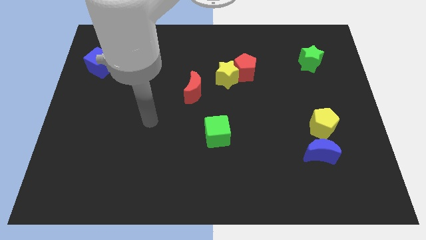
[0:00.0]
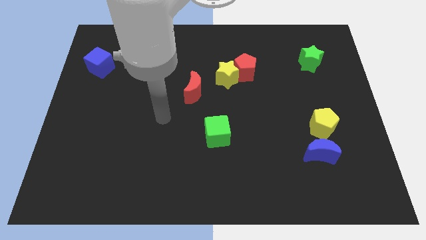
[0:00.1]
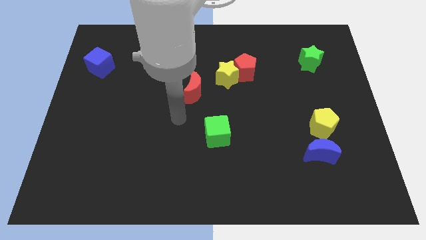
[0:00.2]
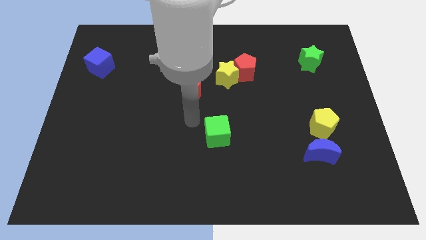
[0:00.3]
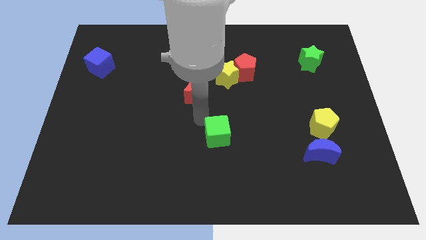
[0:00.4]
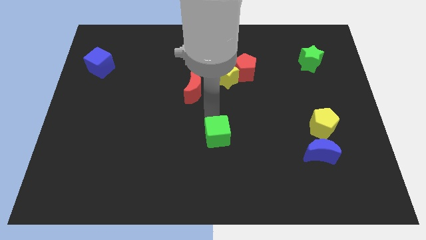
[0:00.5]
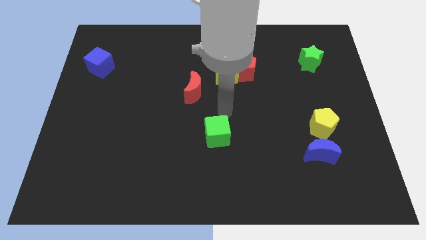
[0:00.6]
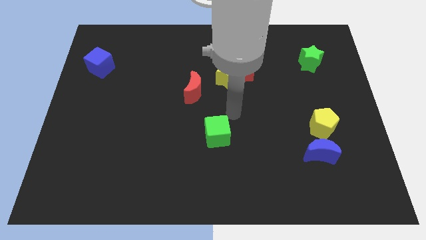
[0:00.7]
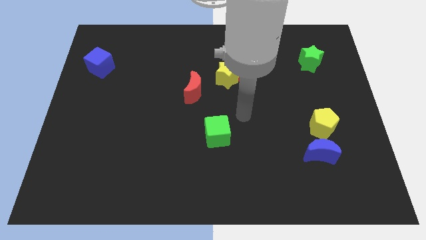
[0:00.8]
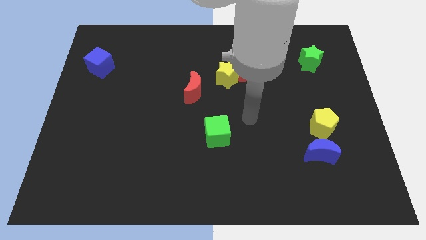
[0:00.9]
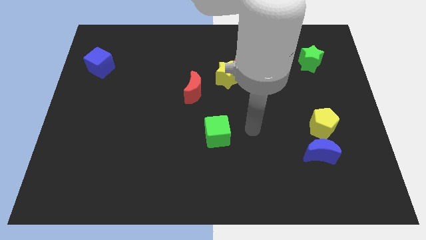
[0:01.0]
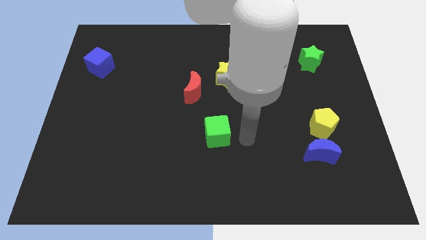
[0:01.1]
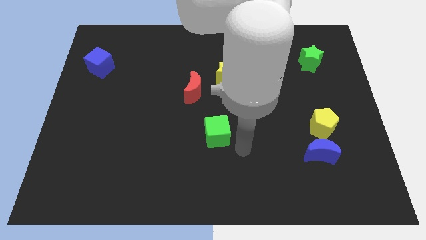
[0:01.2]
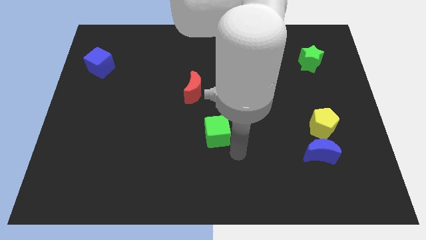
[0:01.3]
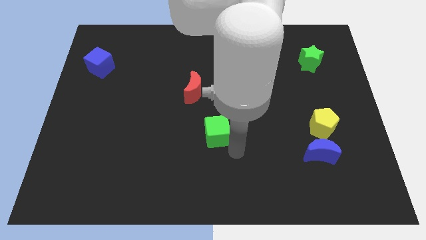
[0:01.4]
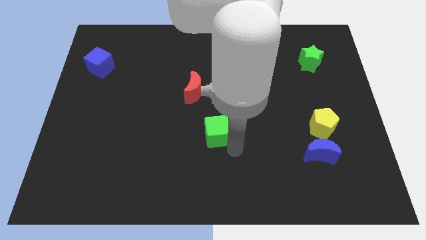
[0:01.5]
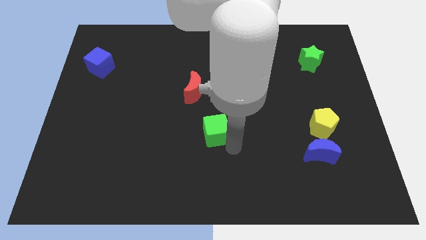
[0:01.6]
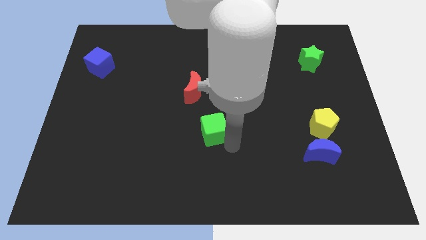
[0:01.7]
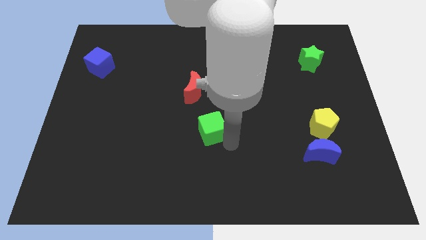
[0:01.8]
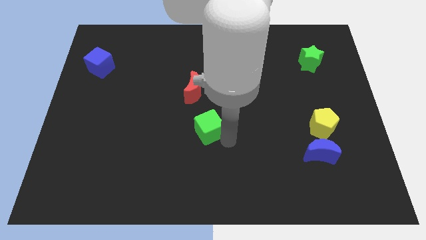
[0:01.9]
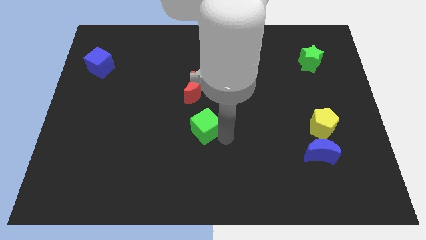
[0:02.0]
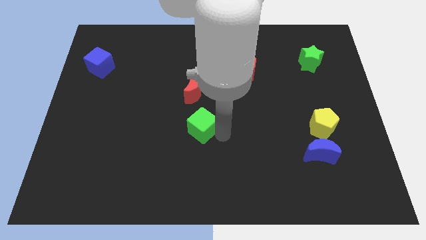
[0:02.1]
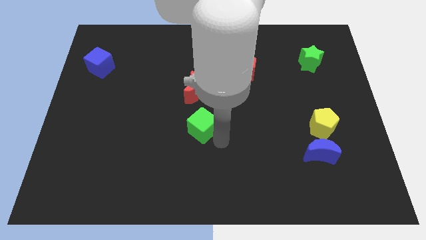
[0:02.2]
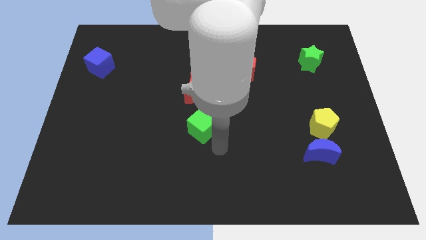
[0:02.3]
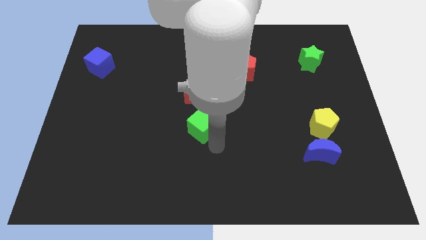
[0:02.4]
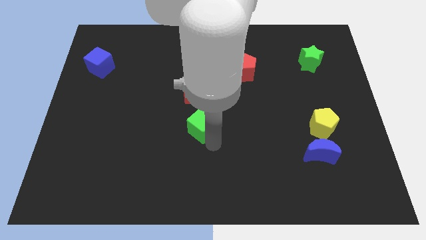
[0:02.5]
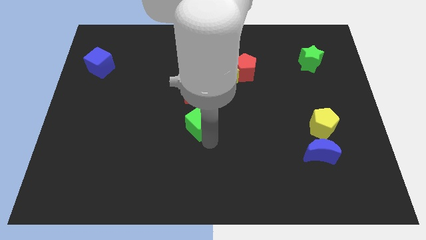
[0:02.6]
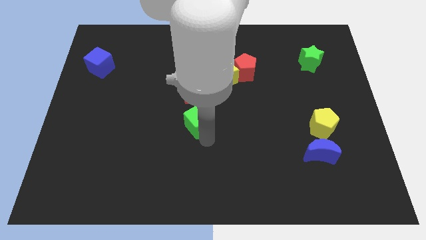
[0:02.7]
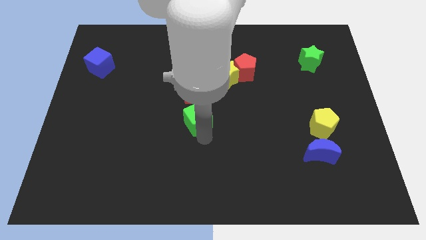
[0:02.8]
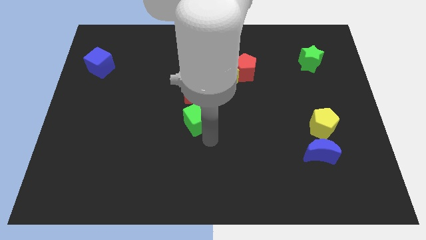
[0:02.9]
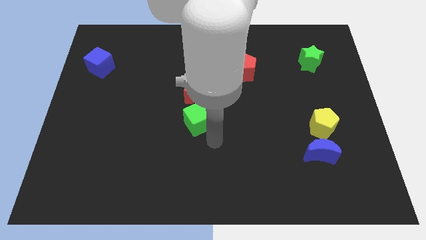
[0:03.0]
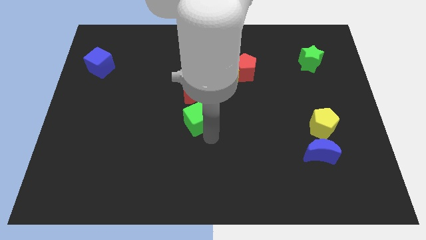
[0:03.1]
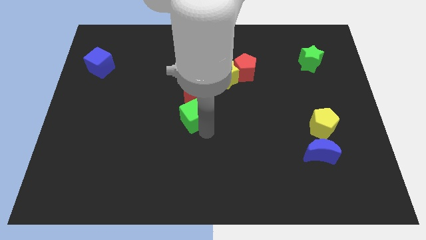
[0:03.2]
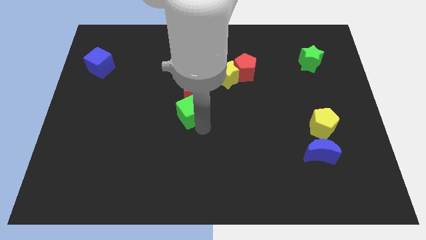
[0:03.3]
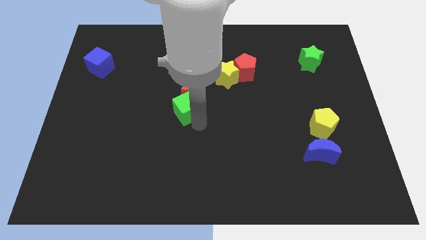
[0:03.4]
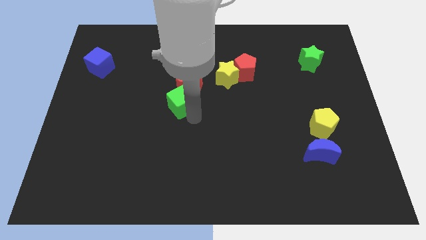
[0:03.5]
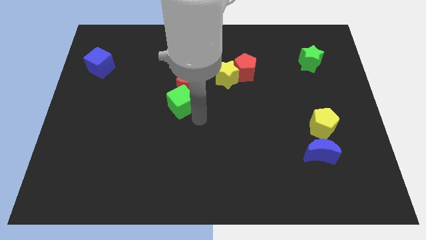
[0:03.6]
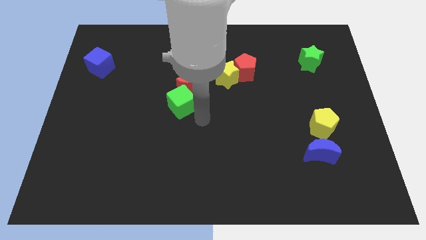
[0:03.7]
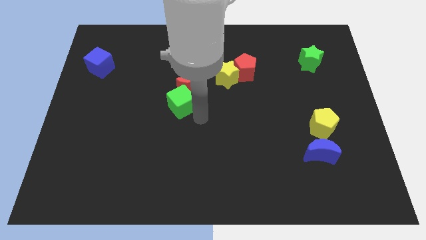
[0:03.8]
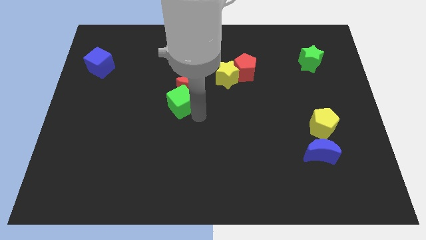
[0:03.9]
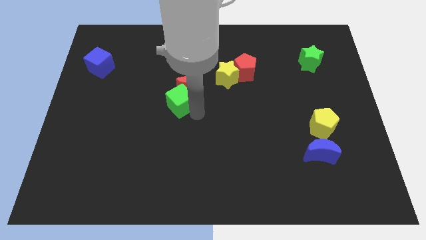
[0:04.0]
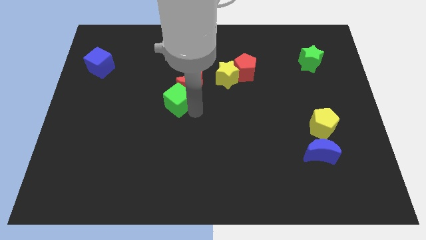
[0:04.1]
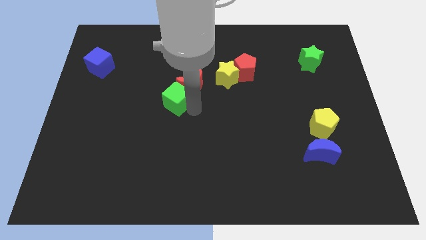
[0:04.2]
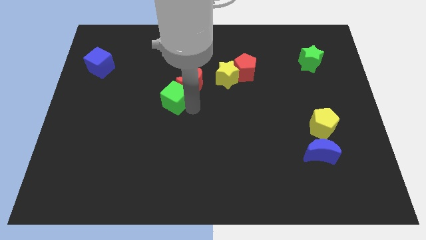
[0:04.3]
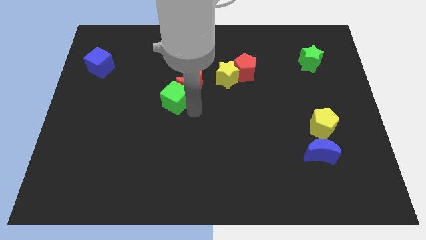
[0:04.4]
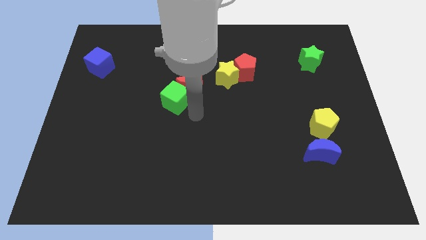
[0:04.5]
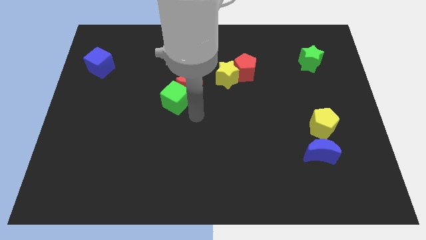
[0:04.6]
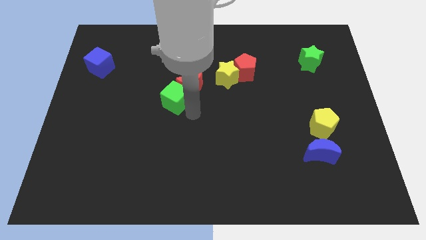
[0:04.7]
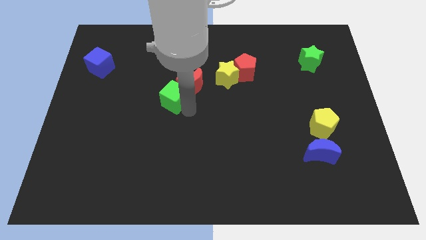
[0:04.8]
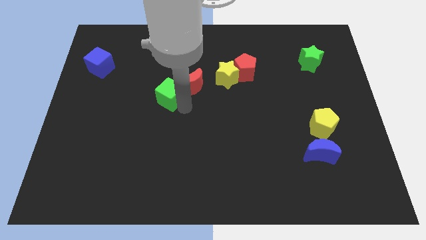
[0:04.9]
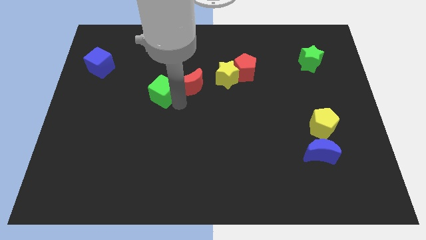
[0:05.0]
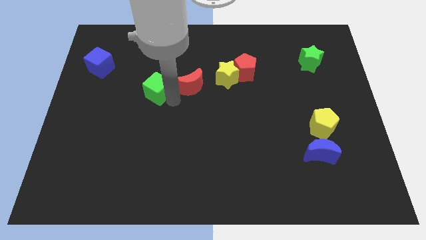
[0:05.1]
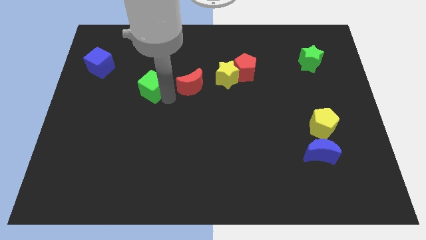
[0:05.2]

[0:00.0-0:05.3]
push the green cube upwards and then left

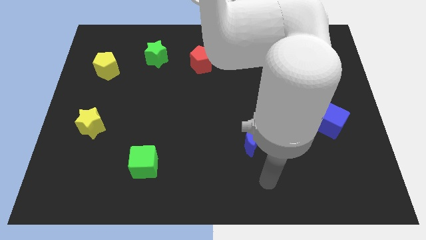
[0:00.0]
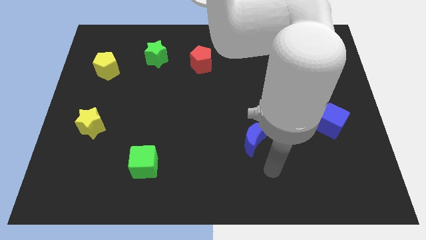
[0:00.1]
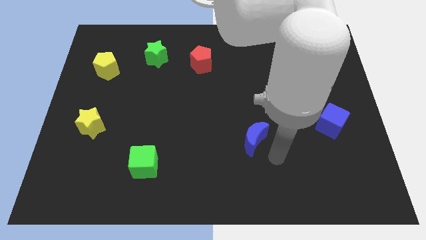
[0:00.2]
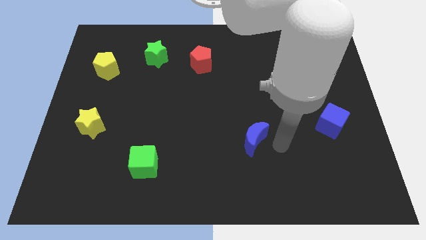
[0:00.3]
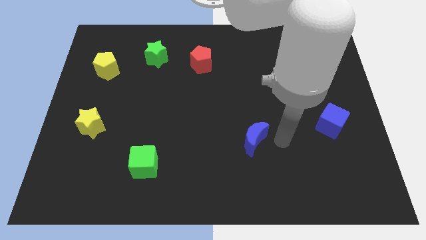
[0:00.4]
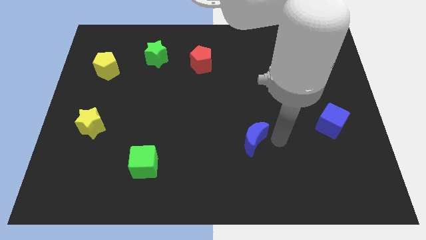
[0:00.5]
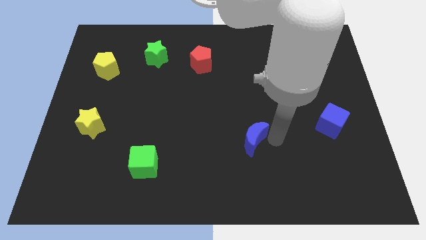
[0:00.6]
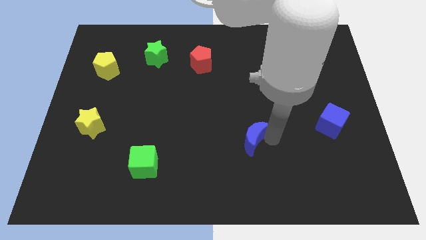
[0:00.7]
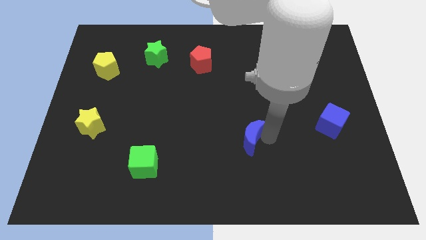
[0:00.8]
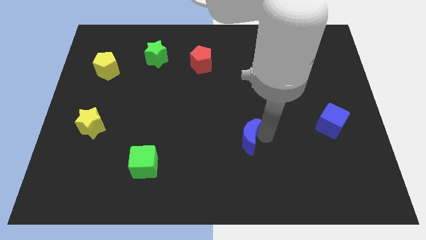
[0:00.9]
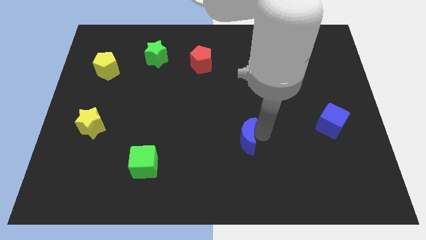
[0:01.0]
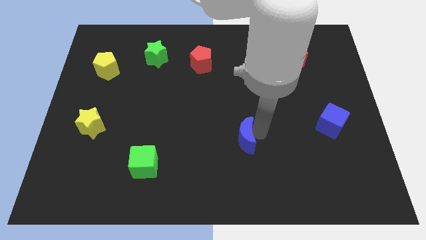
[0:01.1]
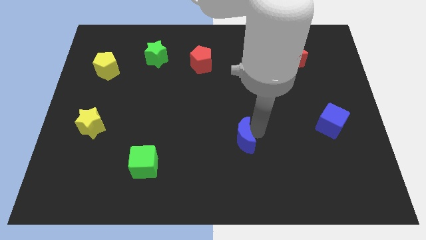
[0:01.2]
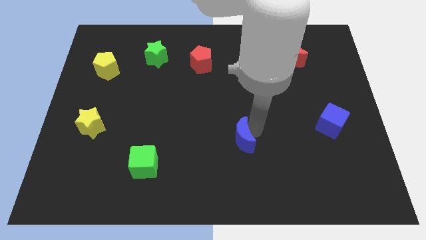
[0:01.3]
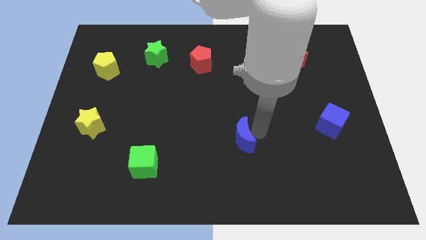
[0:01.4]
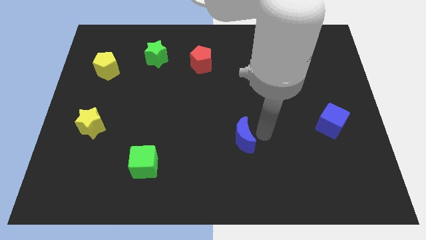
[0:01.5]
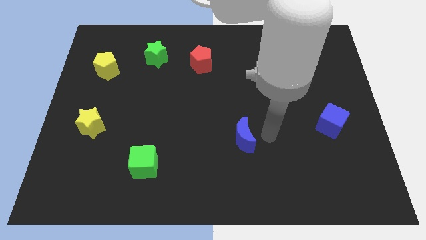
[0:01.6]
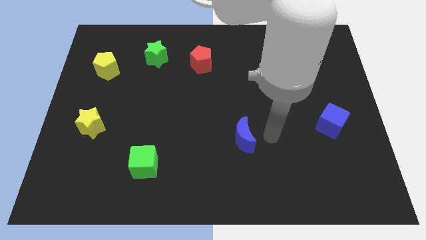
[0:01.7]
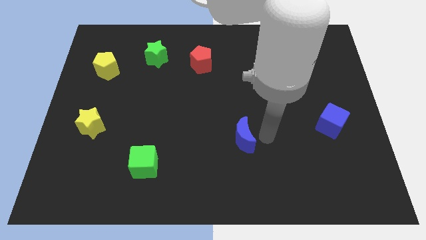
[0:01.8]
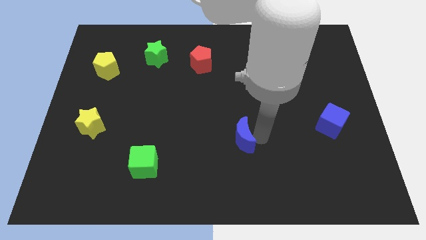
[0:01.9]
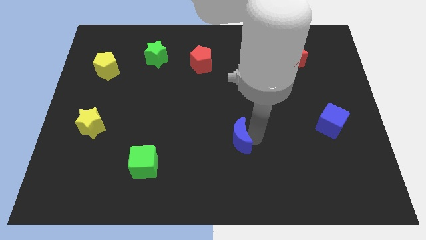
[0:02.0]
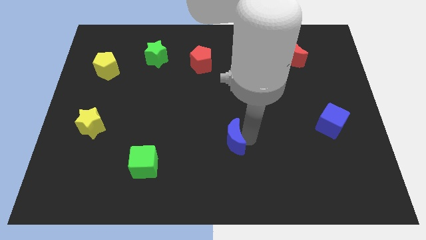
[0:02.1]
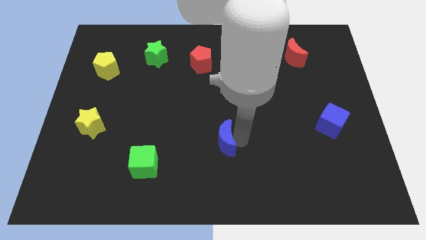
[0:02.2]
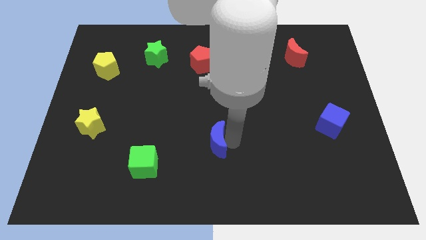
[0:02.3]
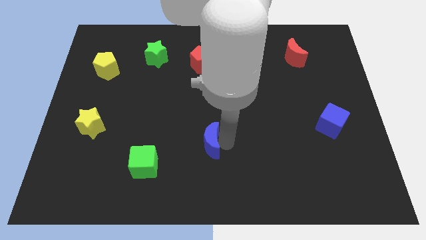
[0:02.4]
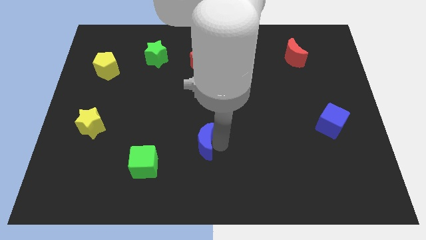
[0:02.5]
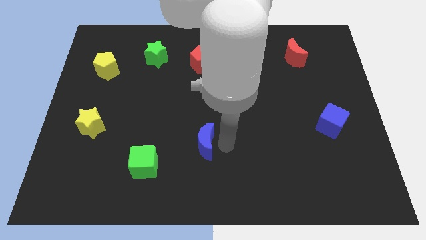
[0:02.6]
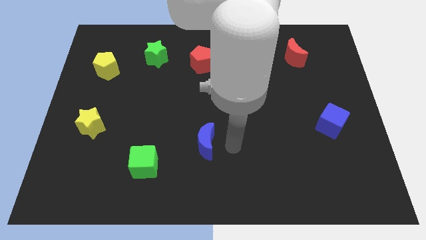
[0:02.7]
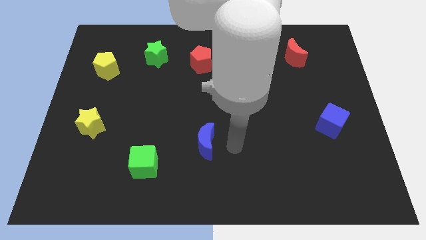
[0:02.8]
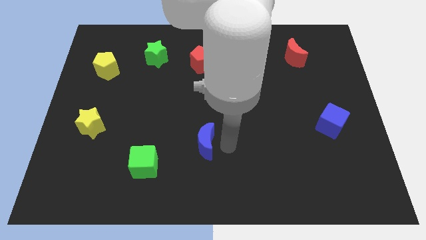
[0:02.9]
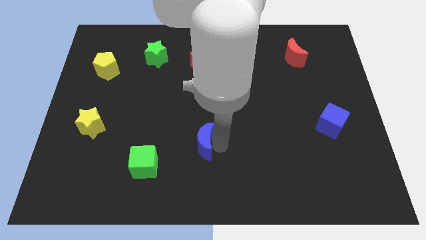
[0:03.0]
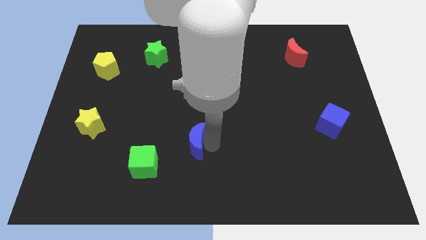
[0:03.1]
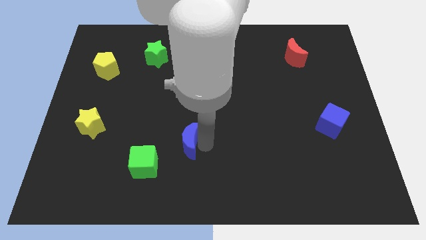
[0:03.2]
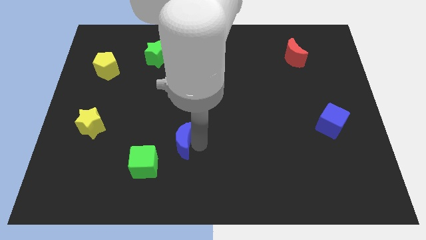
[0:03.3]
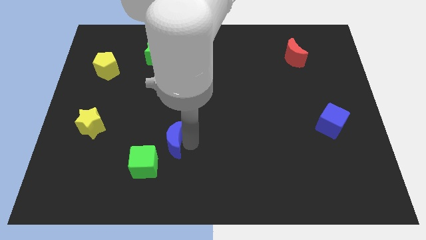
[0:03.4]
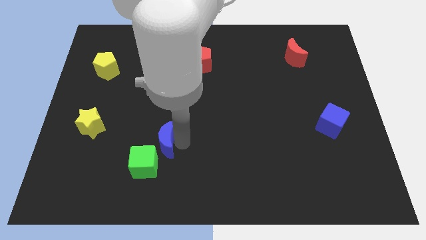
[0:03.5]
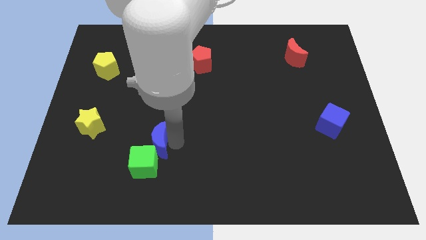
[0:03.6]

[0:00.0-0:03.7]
push the blue moon to the left
